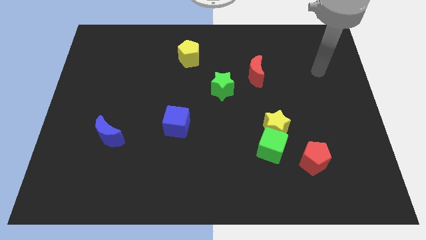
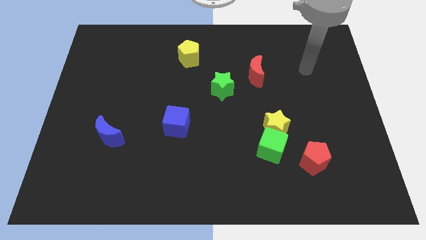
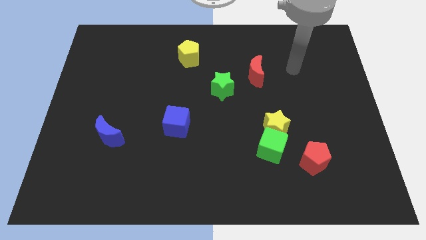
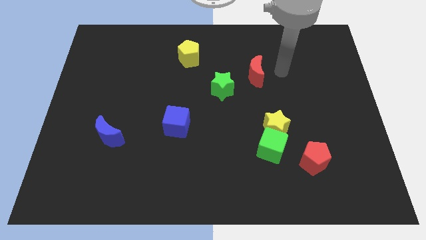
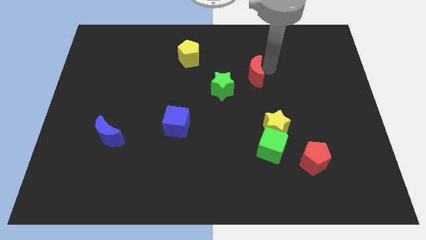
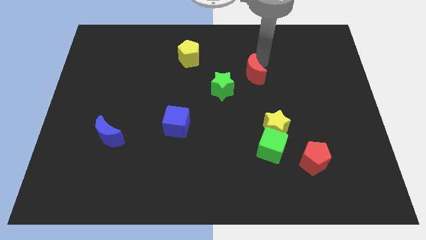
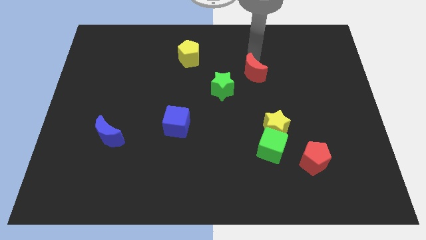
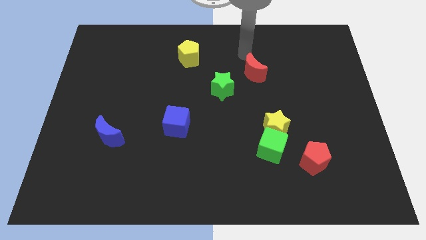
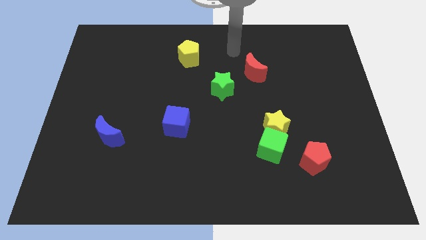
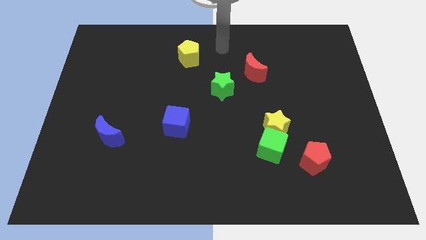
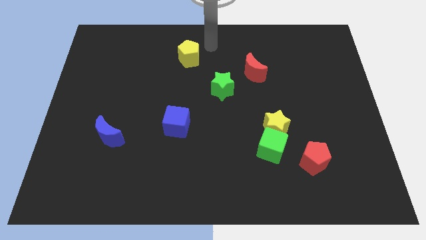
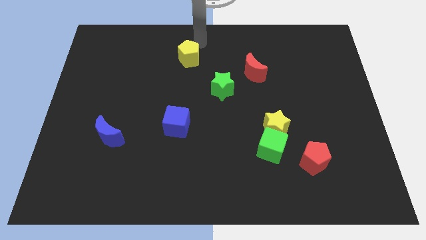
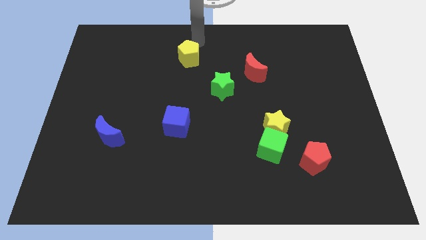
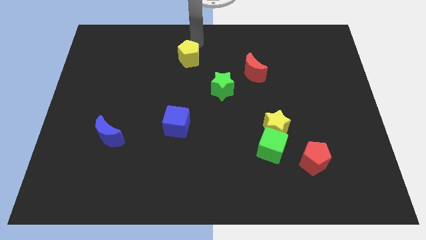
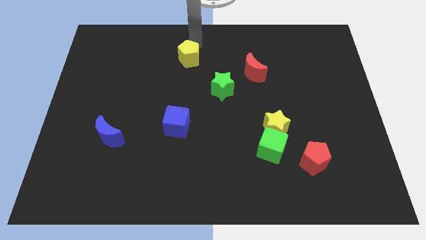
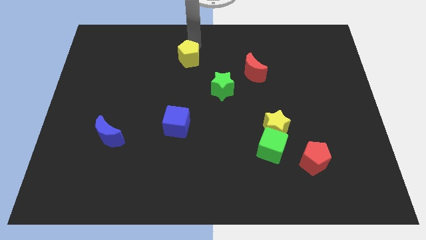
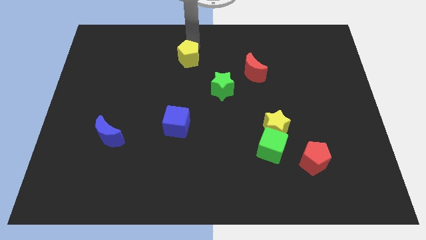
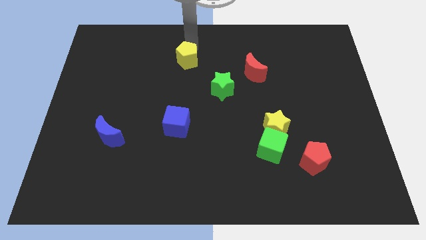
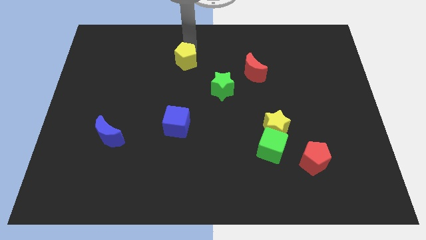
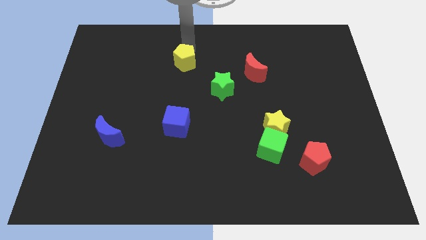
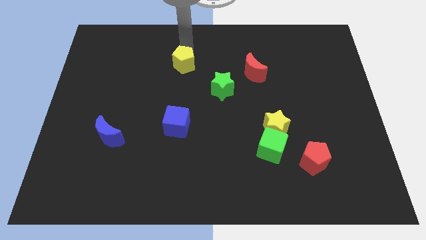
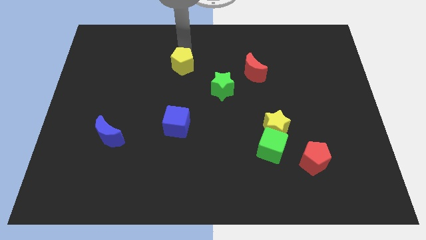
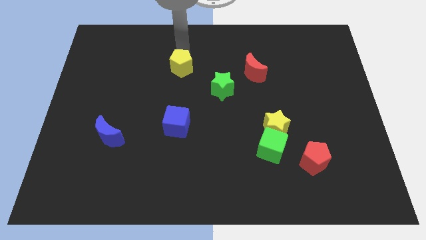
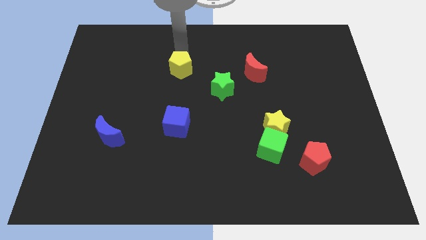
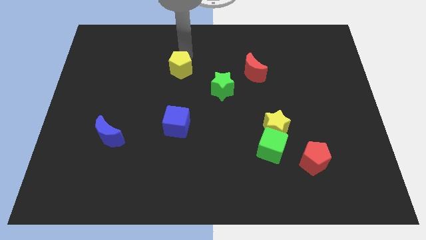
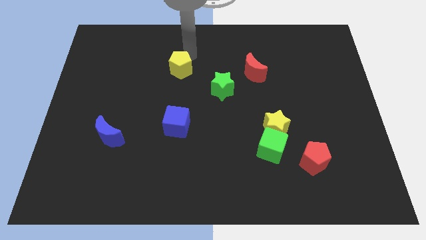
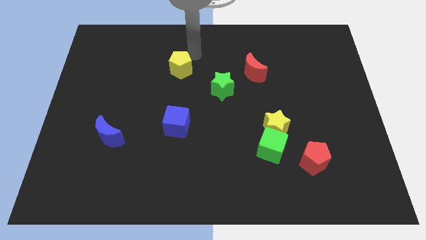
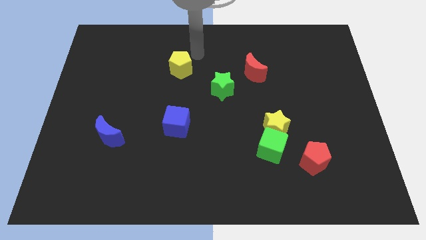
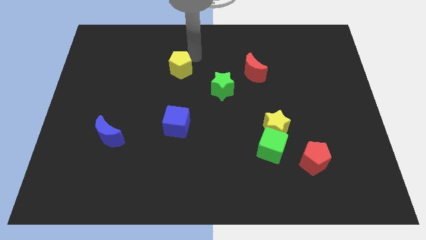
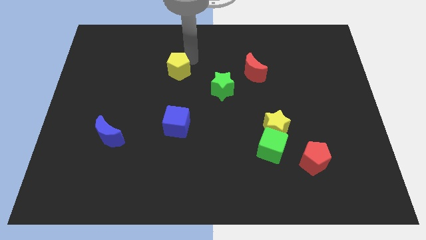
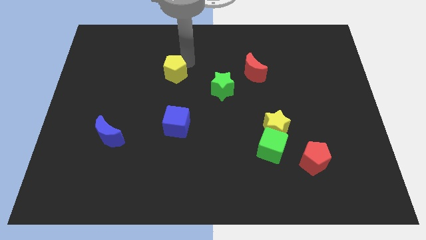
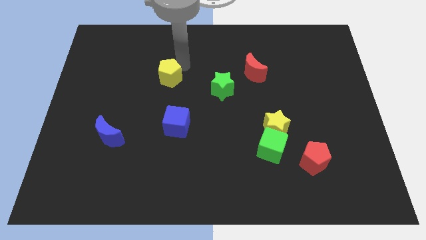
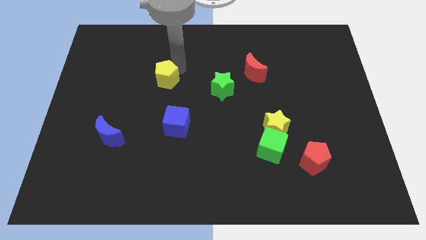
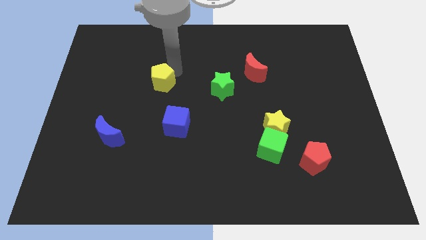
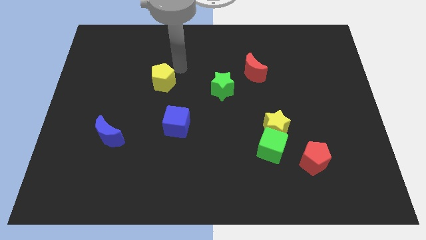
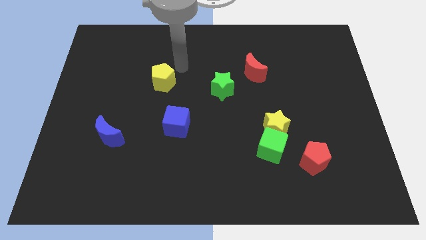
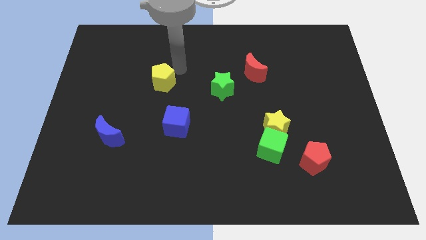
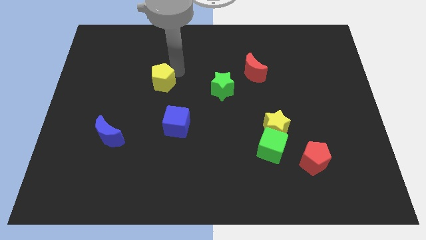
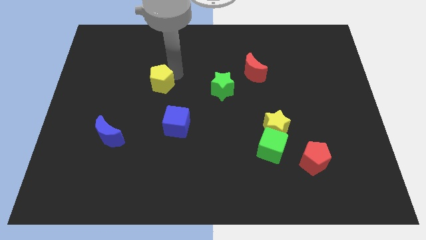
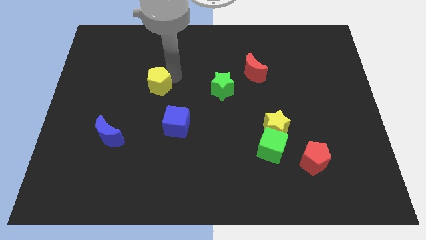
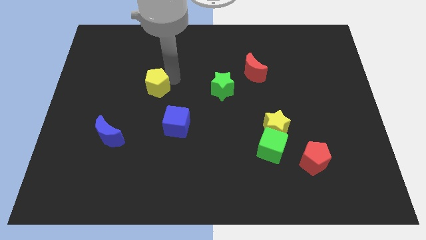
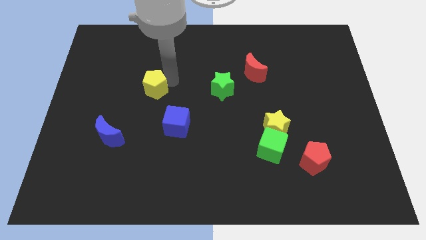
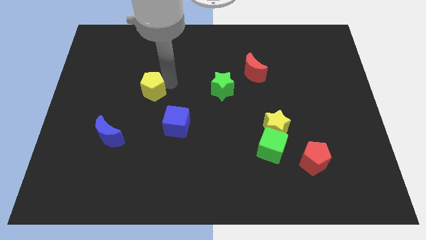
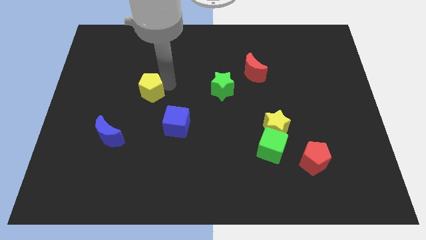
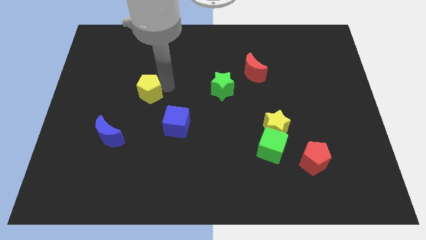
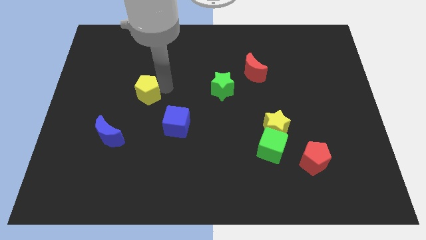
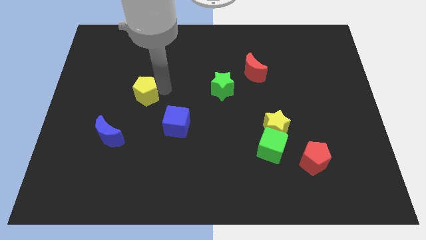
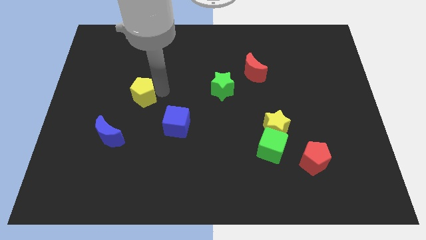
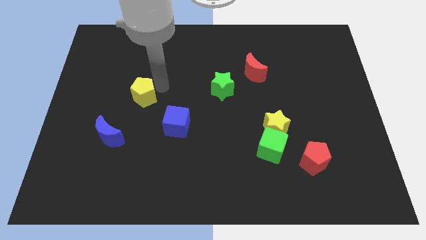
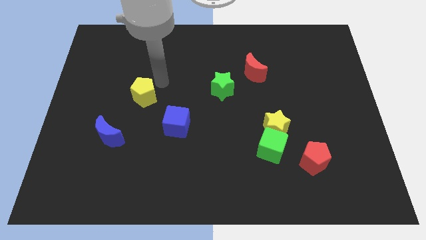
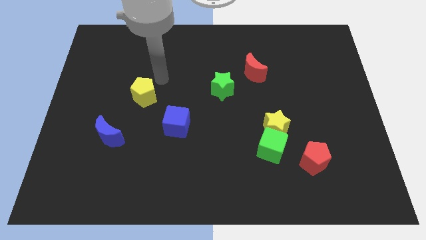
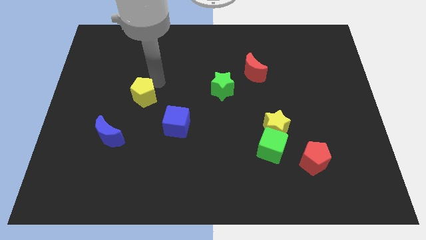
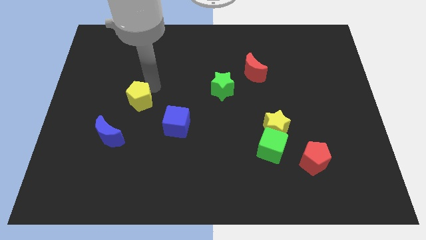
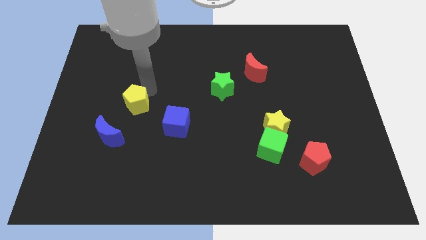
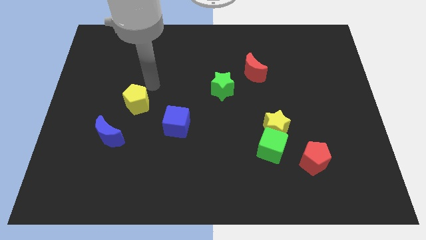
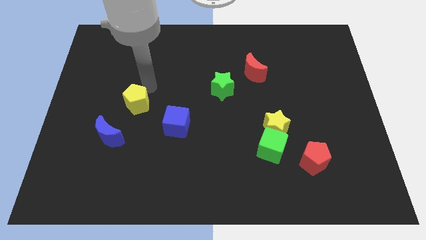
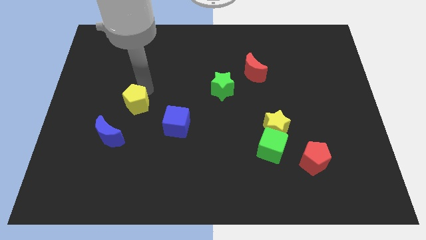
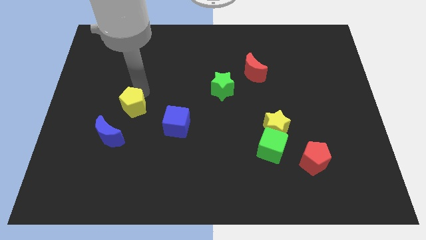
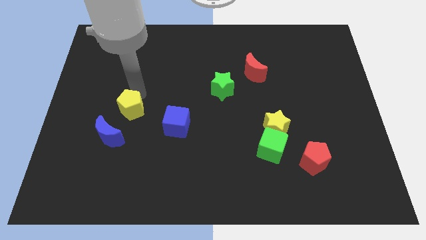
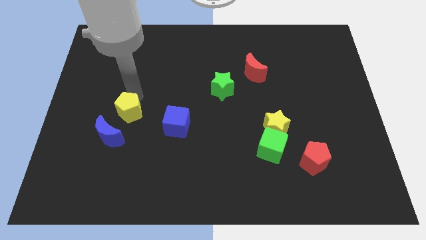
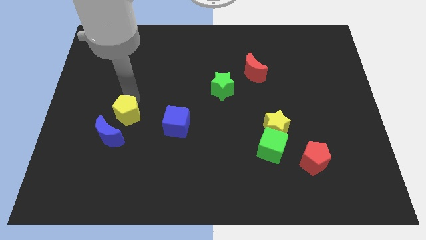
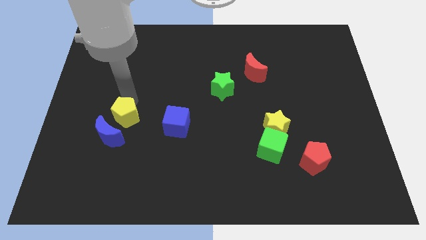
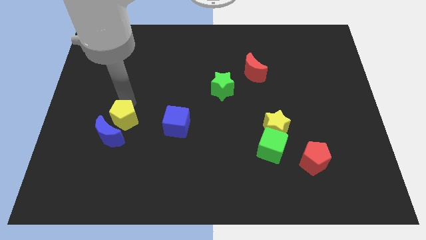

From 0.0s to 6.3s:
push the yellow pentagon next to the blue moon

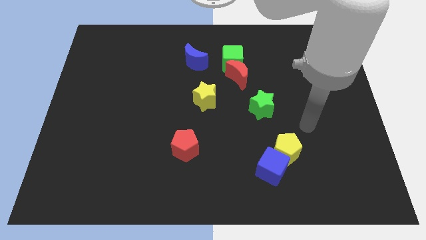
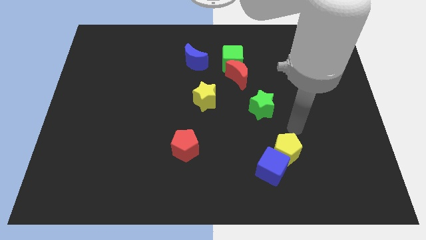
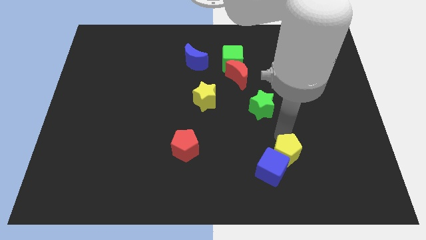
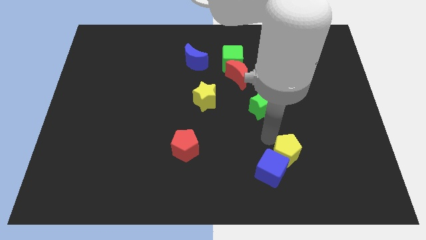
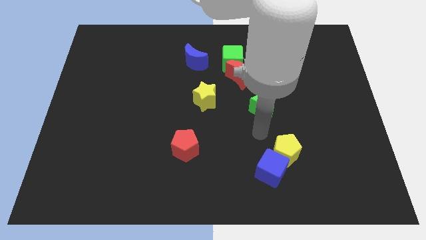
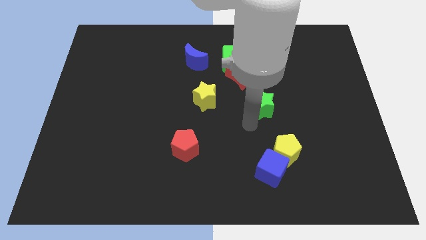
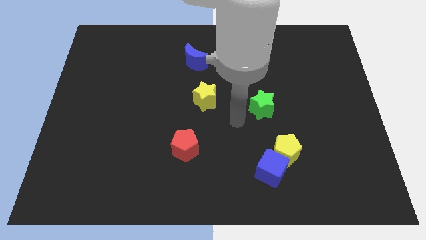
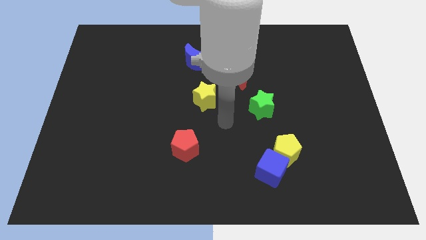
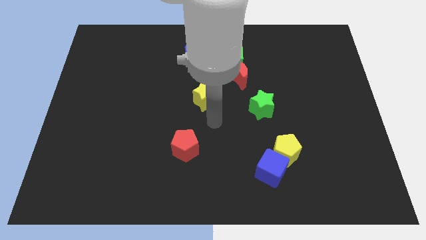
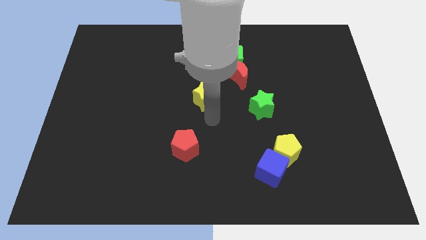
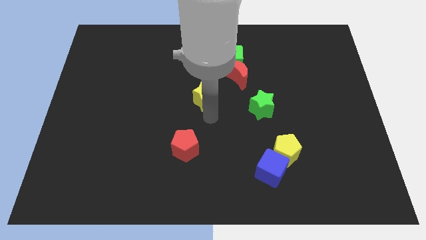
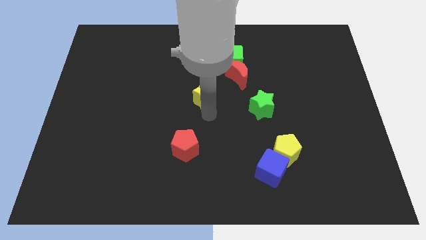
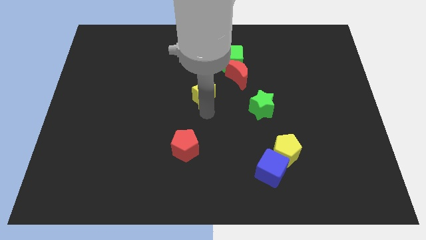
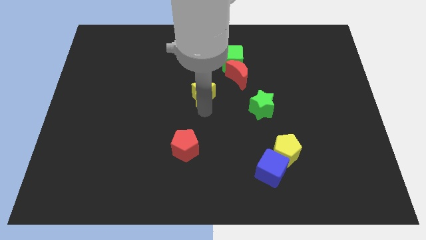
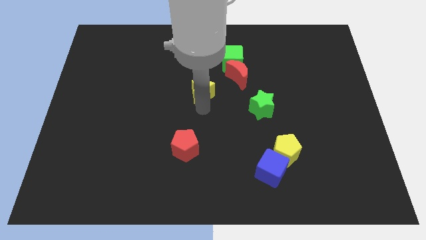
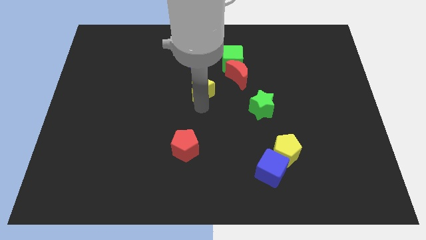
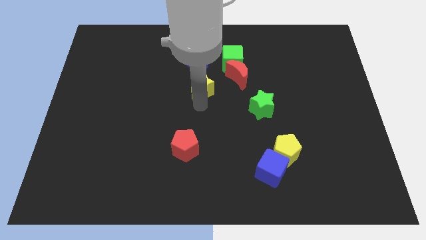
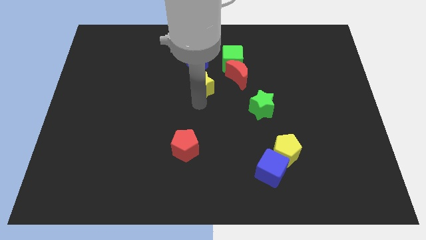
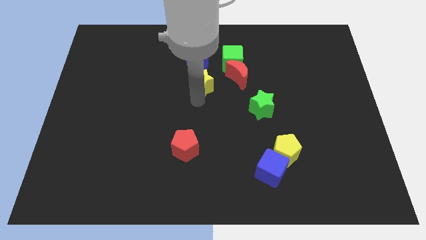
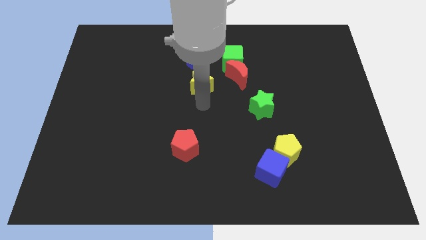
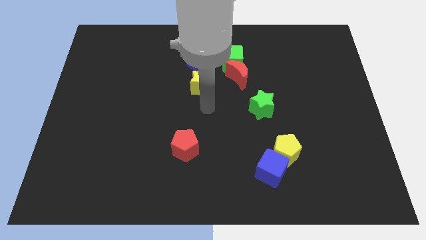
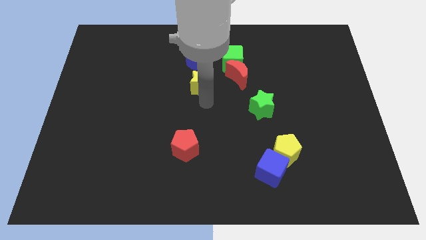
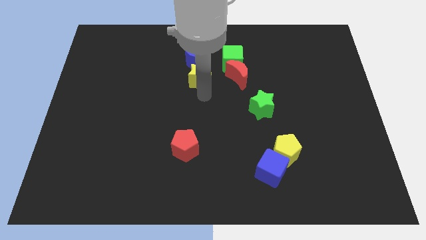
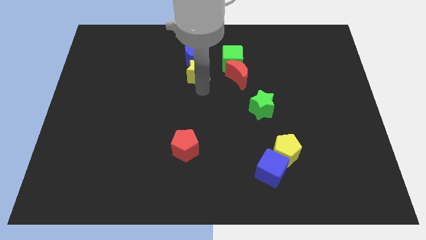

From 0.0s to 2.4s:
push the yellow star to the blue moon
